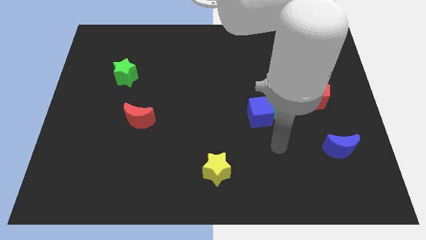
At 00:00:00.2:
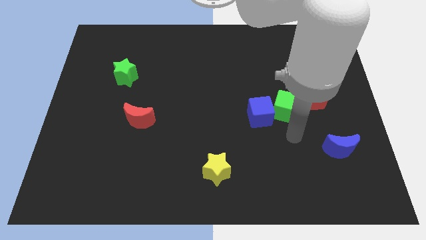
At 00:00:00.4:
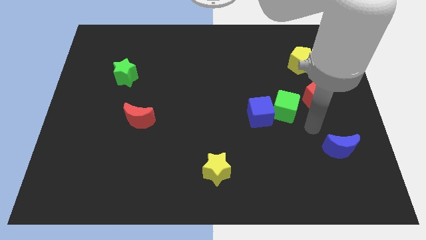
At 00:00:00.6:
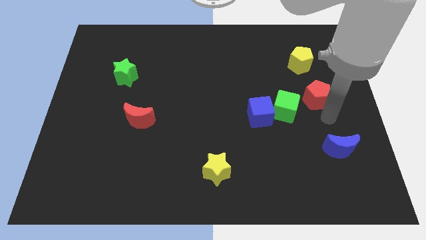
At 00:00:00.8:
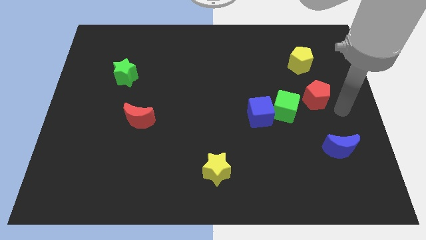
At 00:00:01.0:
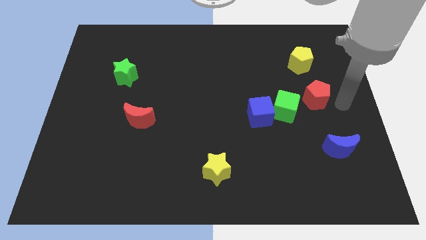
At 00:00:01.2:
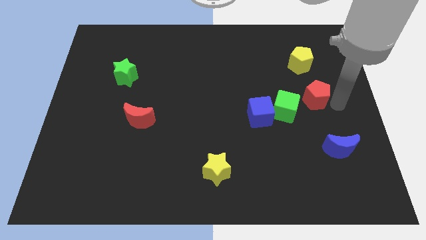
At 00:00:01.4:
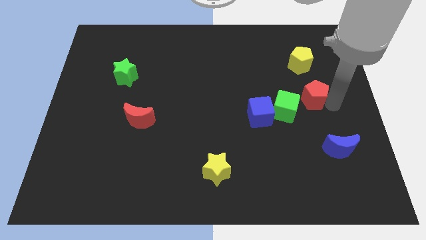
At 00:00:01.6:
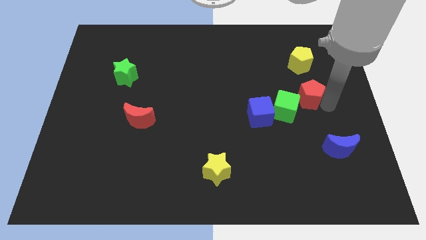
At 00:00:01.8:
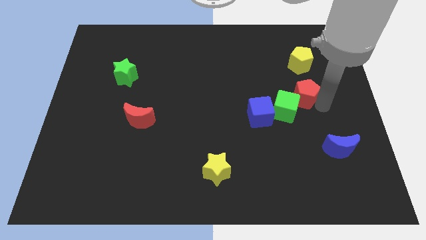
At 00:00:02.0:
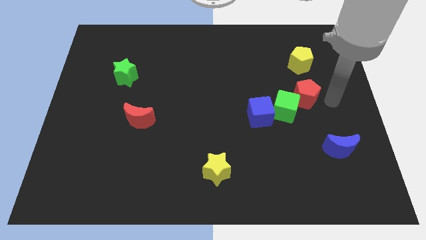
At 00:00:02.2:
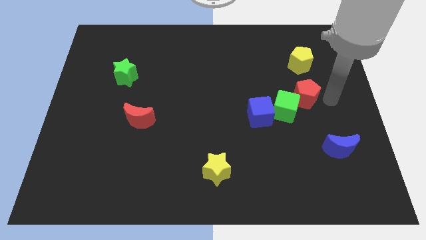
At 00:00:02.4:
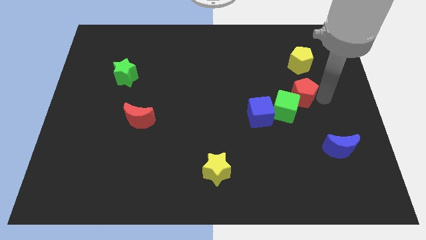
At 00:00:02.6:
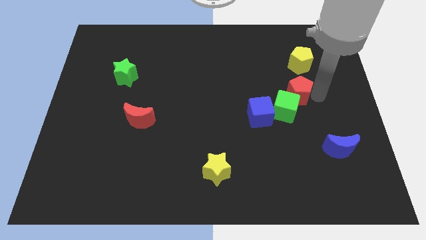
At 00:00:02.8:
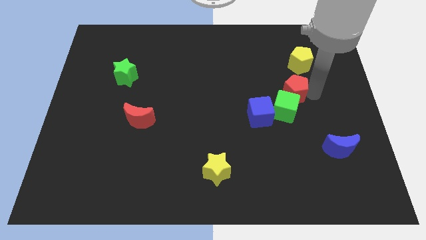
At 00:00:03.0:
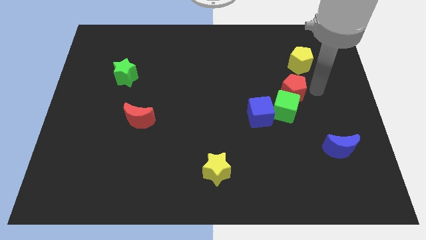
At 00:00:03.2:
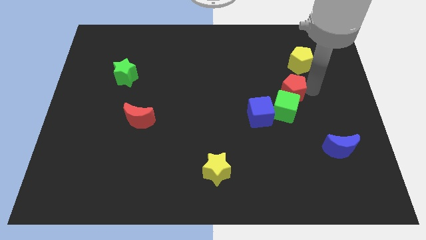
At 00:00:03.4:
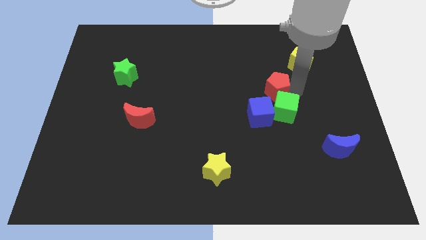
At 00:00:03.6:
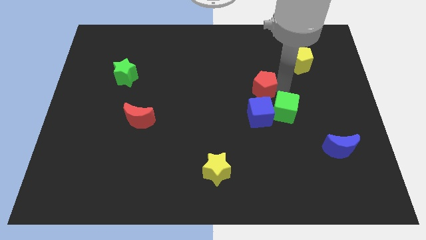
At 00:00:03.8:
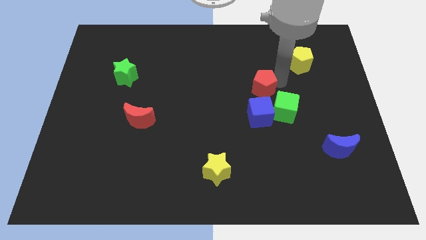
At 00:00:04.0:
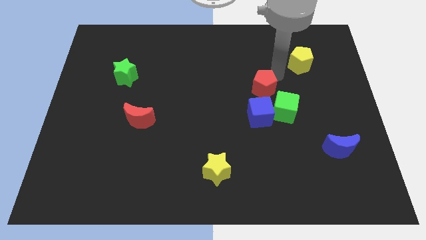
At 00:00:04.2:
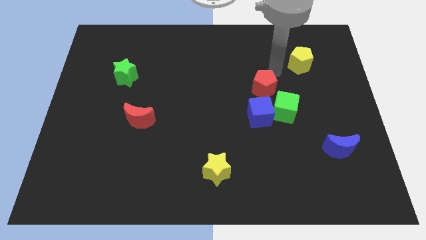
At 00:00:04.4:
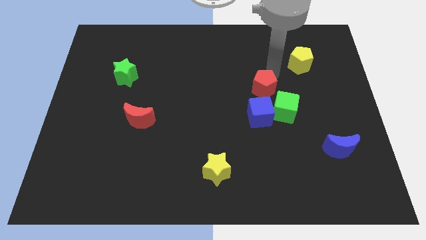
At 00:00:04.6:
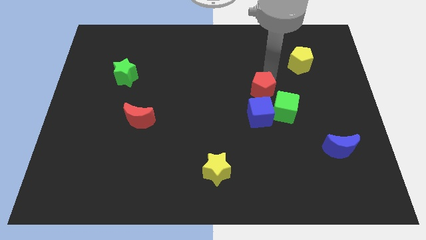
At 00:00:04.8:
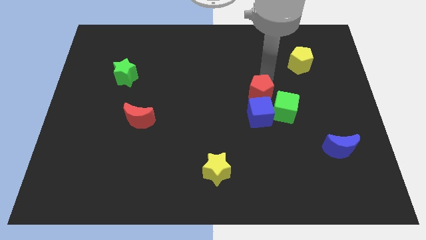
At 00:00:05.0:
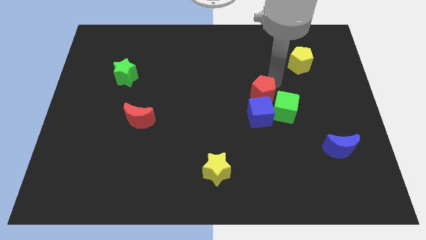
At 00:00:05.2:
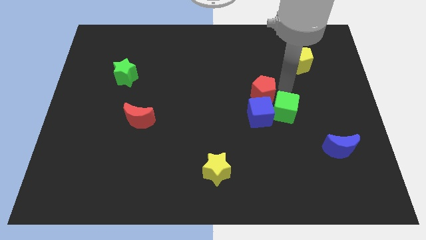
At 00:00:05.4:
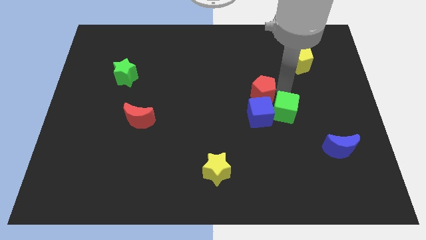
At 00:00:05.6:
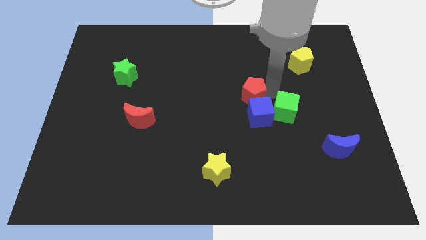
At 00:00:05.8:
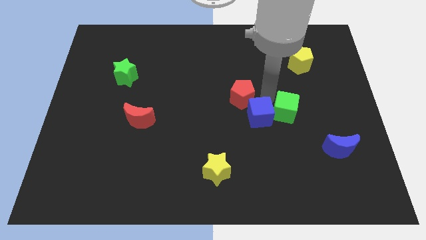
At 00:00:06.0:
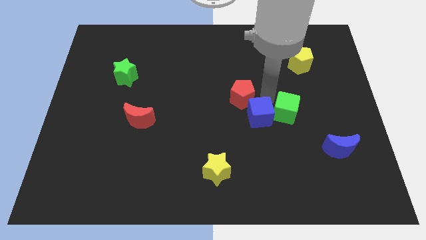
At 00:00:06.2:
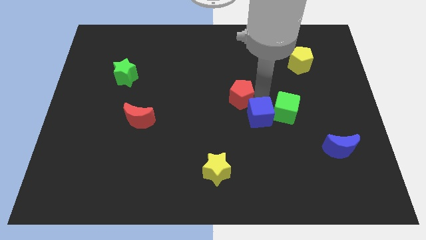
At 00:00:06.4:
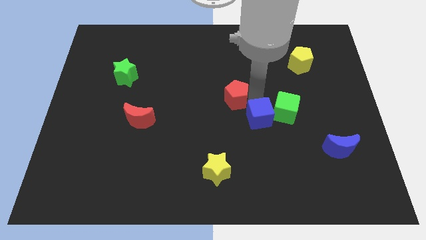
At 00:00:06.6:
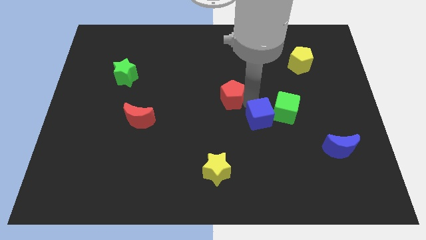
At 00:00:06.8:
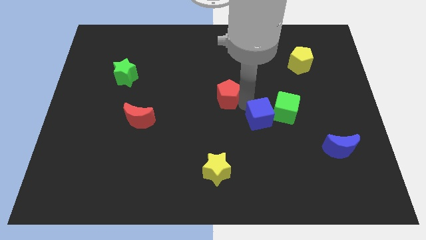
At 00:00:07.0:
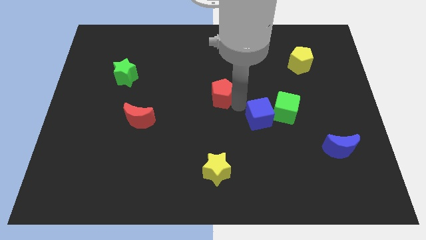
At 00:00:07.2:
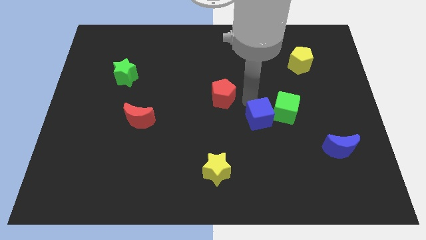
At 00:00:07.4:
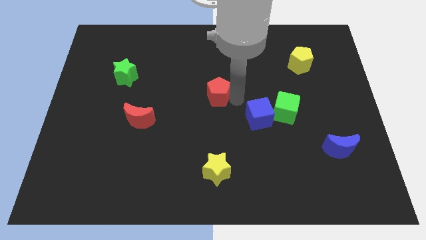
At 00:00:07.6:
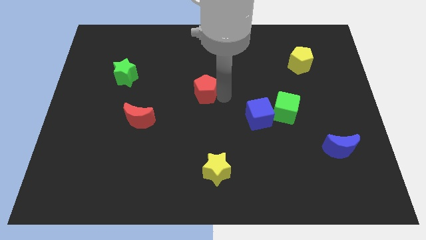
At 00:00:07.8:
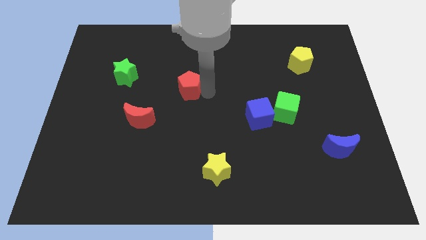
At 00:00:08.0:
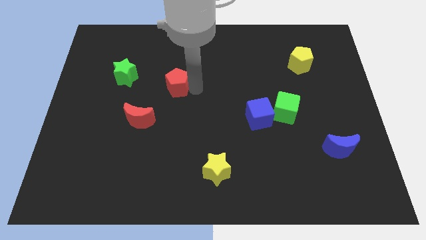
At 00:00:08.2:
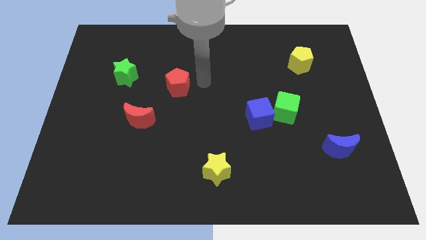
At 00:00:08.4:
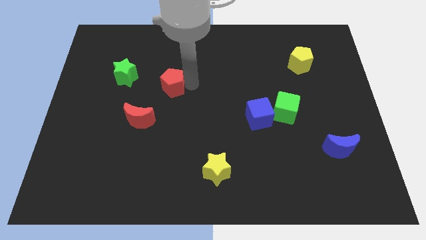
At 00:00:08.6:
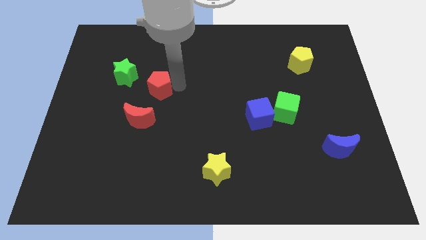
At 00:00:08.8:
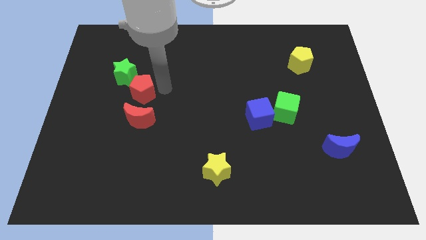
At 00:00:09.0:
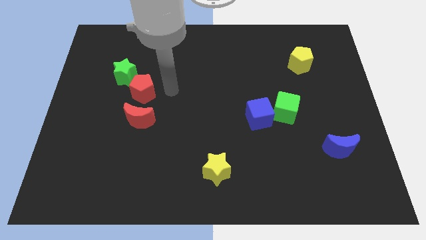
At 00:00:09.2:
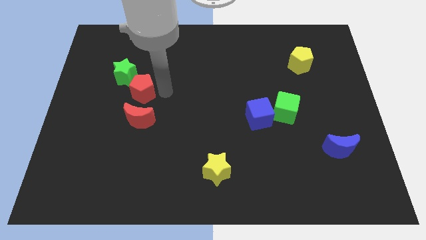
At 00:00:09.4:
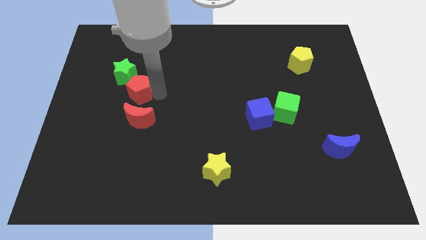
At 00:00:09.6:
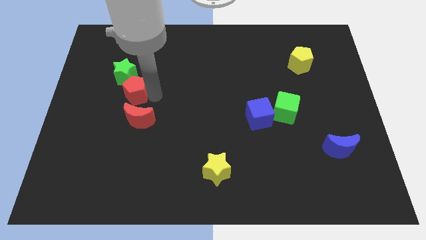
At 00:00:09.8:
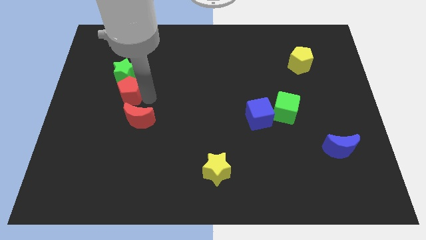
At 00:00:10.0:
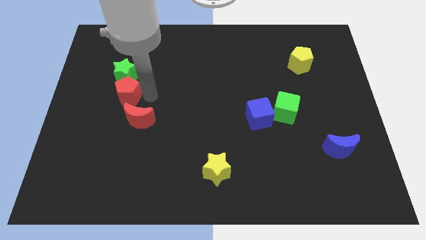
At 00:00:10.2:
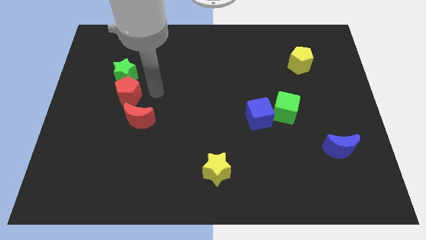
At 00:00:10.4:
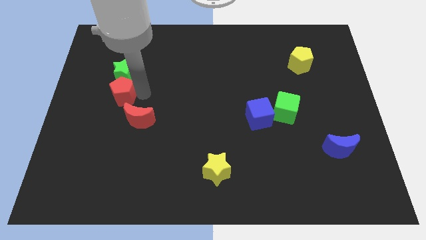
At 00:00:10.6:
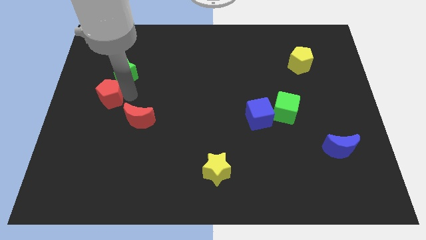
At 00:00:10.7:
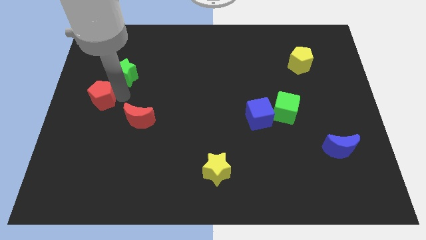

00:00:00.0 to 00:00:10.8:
put the red pentagon to the left side
